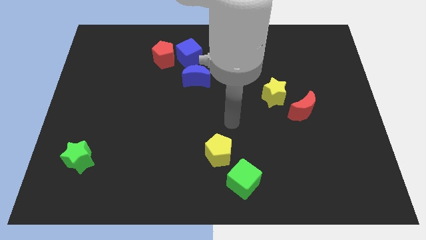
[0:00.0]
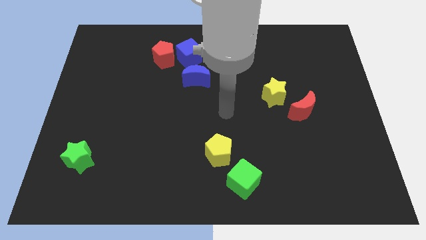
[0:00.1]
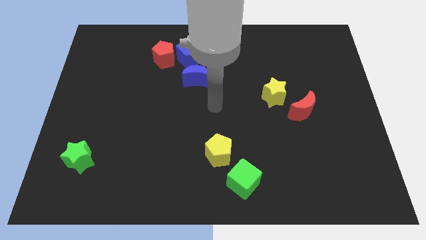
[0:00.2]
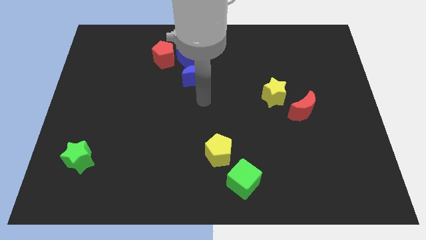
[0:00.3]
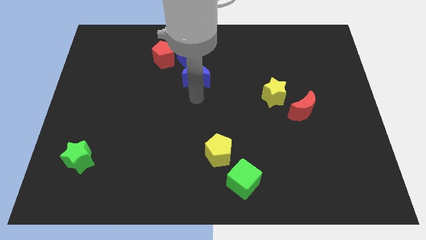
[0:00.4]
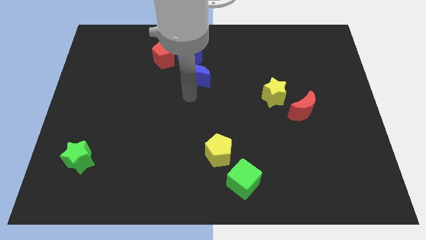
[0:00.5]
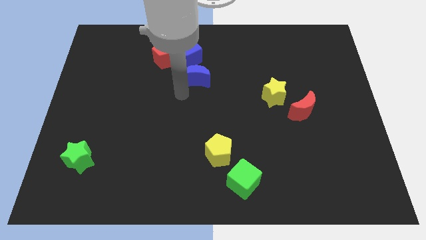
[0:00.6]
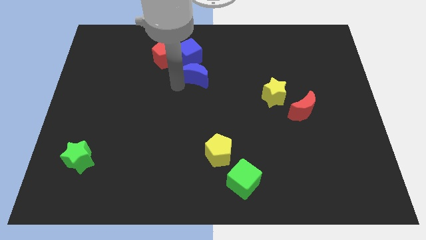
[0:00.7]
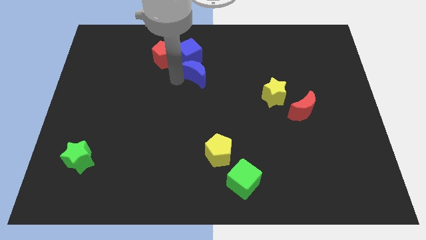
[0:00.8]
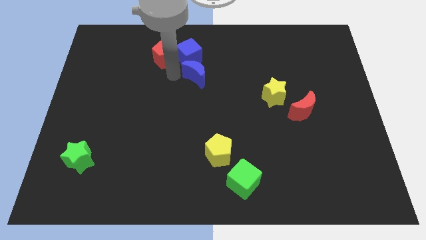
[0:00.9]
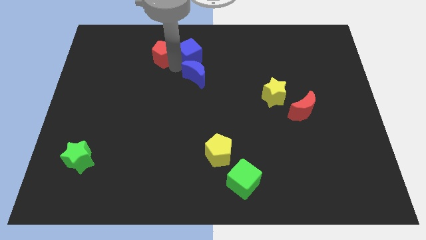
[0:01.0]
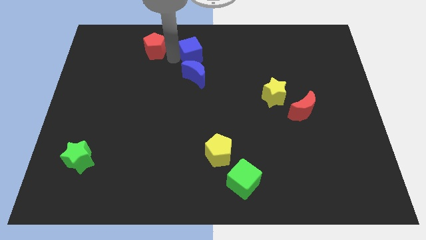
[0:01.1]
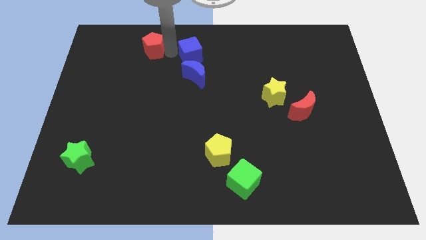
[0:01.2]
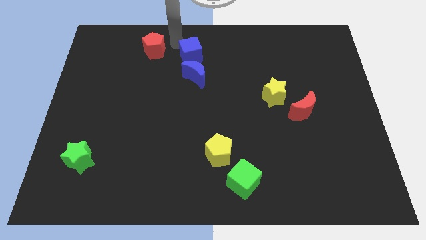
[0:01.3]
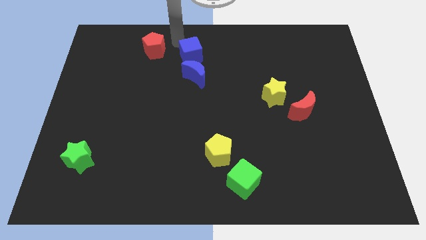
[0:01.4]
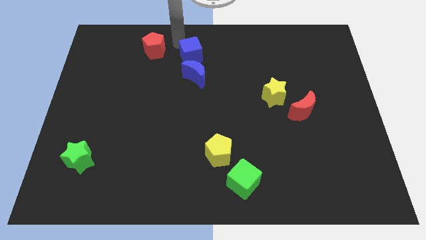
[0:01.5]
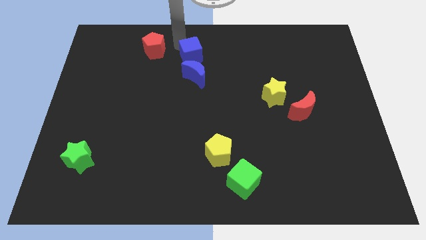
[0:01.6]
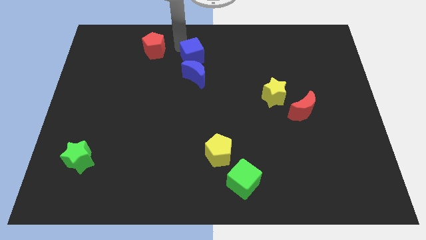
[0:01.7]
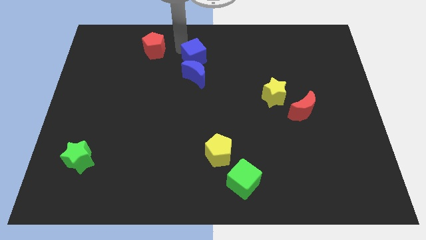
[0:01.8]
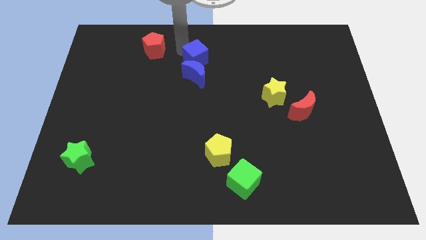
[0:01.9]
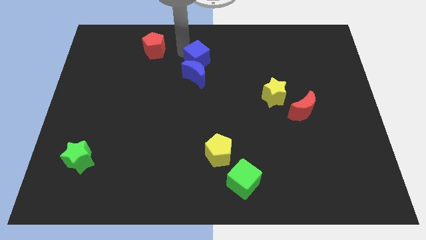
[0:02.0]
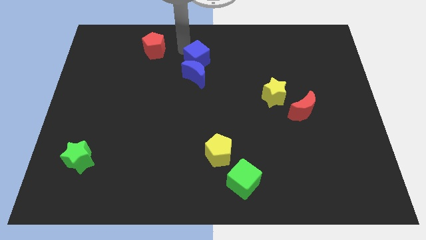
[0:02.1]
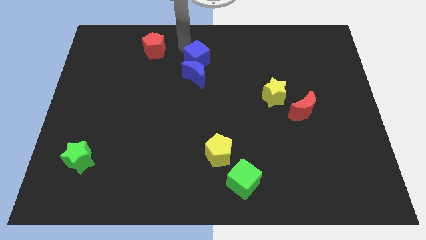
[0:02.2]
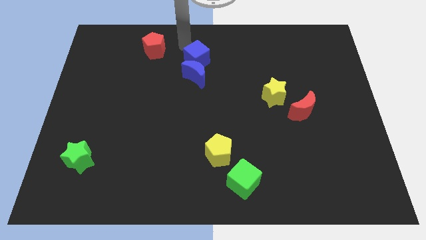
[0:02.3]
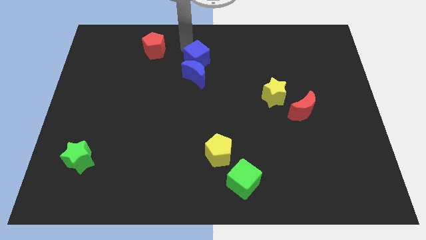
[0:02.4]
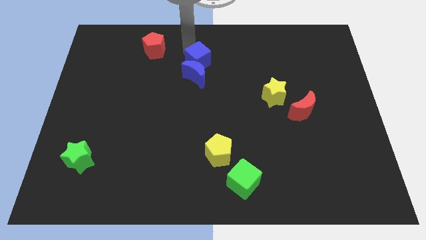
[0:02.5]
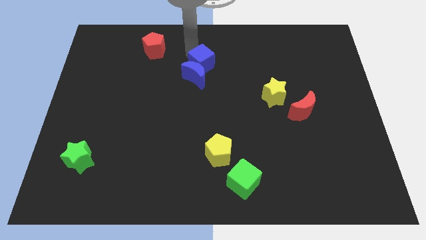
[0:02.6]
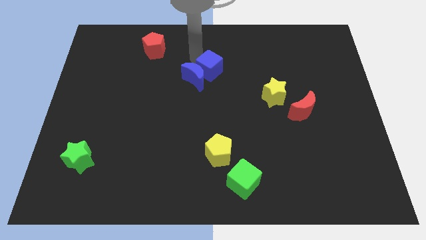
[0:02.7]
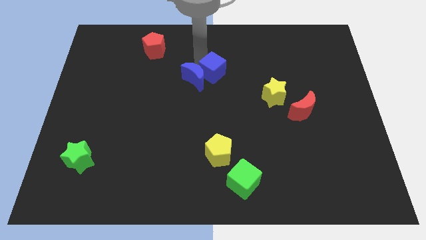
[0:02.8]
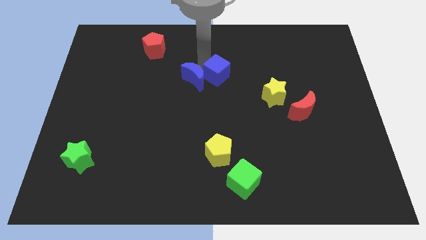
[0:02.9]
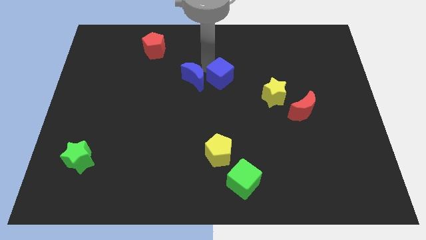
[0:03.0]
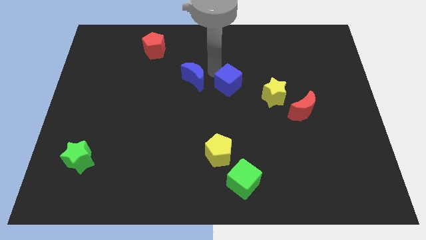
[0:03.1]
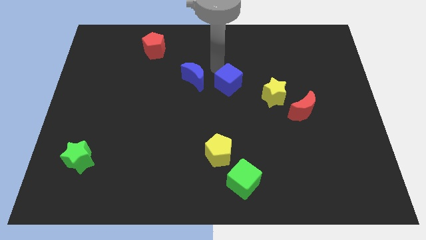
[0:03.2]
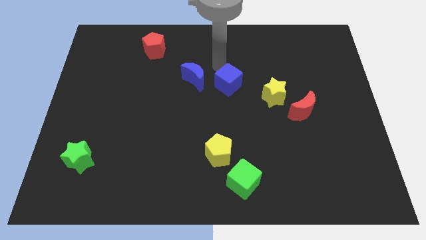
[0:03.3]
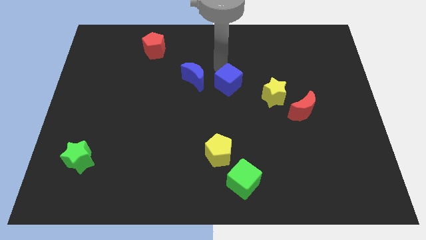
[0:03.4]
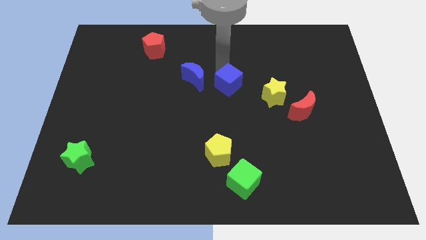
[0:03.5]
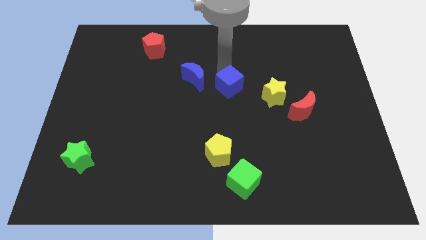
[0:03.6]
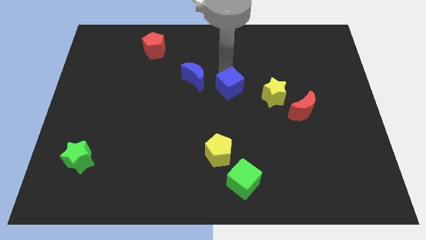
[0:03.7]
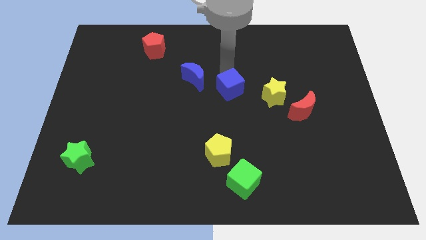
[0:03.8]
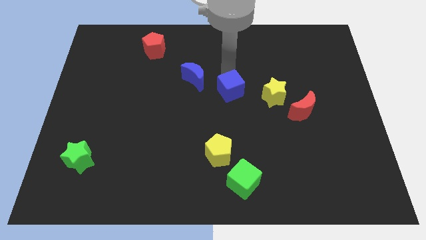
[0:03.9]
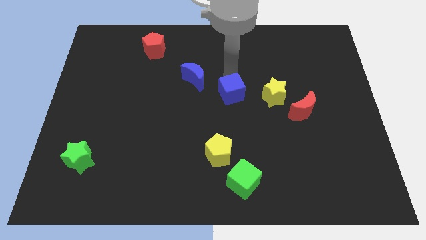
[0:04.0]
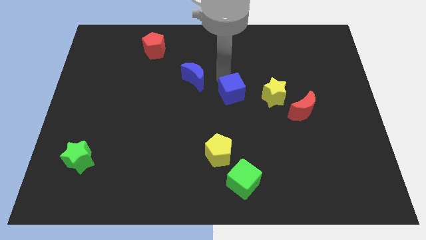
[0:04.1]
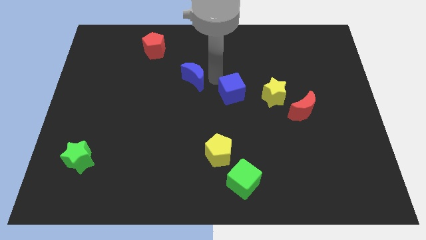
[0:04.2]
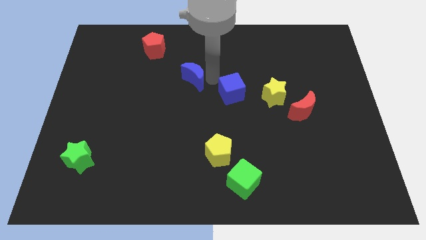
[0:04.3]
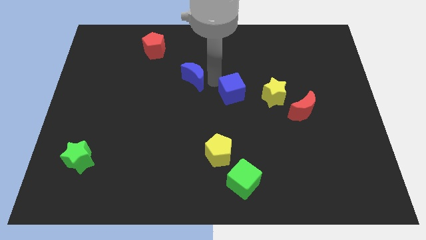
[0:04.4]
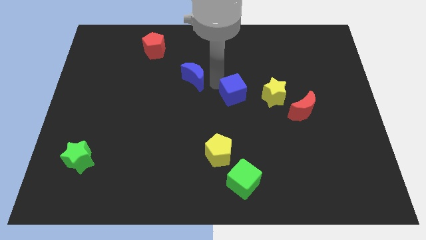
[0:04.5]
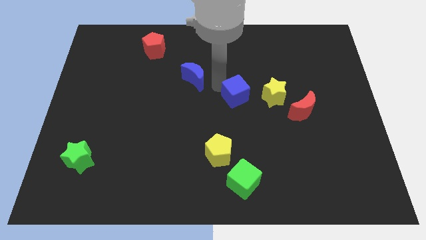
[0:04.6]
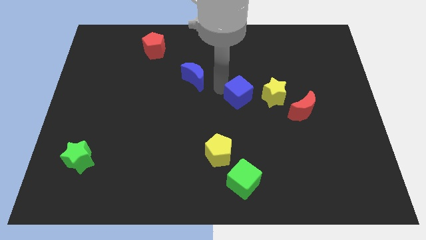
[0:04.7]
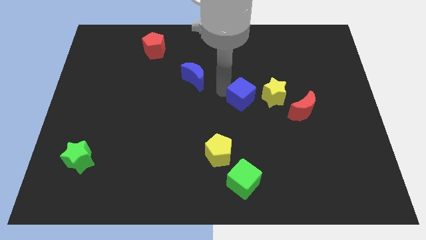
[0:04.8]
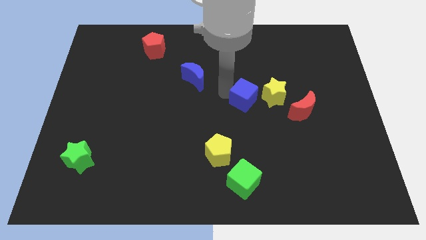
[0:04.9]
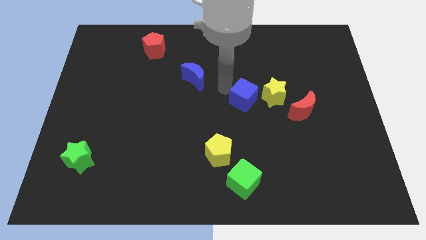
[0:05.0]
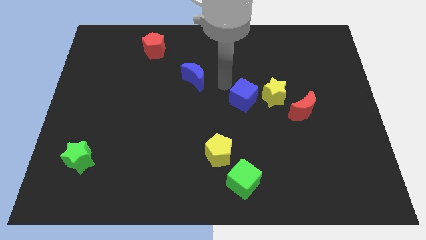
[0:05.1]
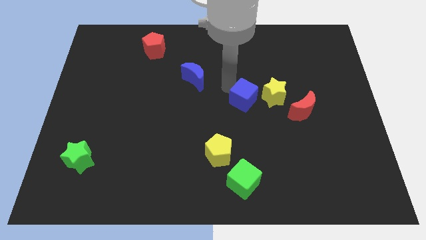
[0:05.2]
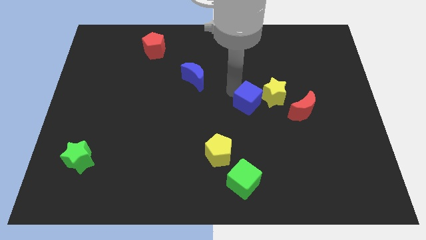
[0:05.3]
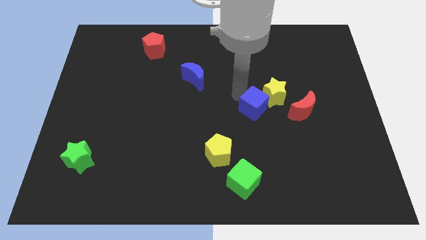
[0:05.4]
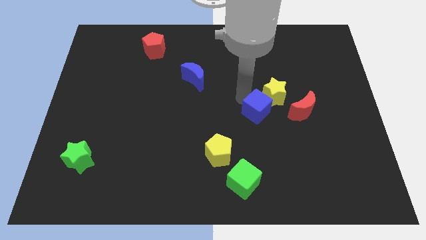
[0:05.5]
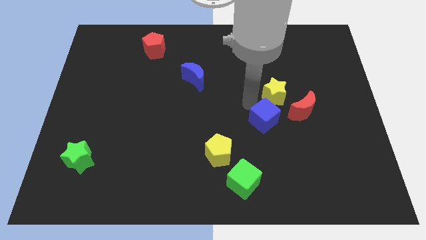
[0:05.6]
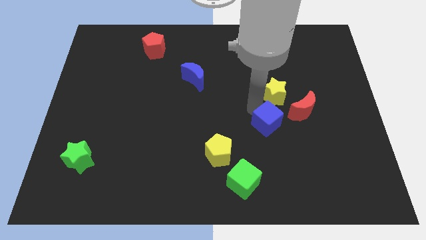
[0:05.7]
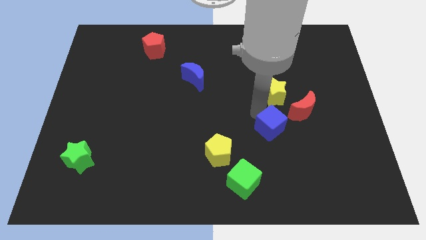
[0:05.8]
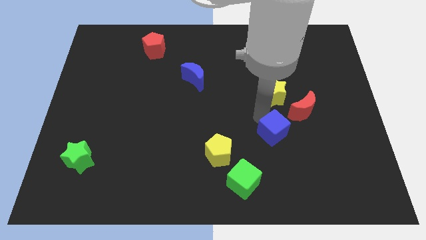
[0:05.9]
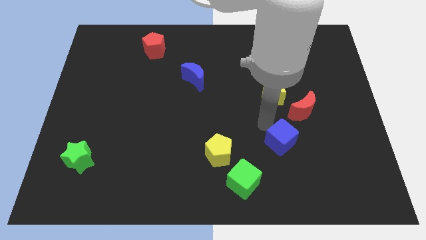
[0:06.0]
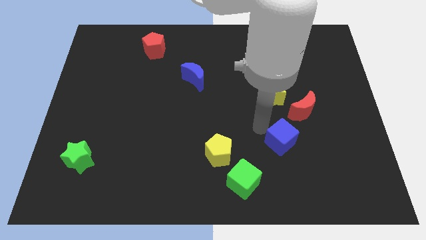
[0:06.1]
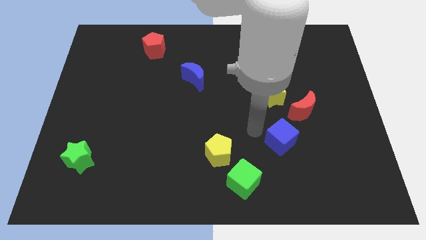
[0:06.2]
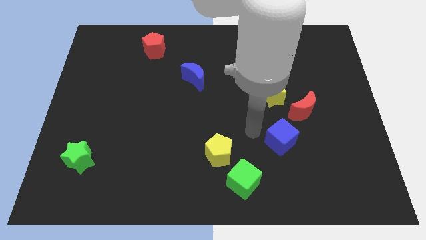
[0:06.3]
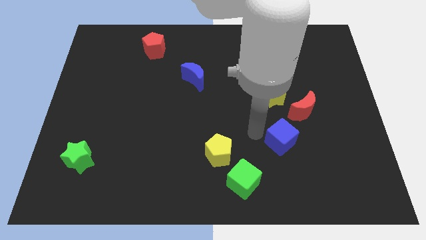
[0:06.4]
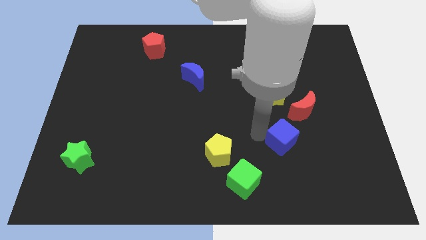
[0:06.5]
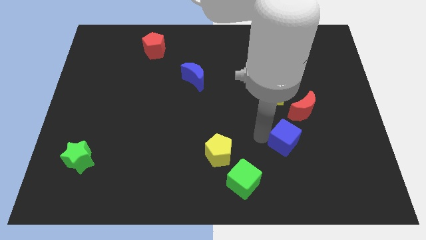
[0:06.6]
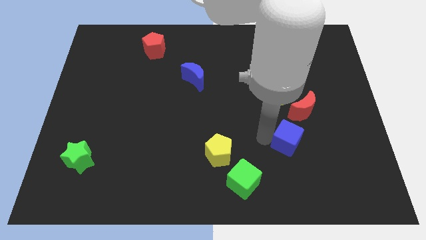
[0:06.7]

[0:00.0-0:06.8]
slide the blue cube to the bottom of the red moon
